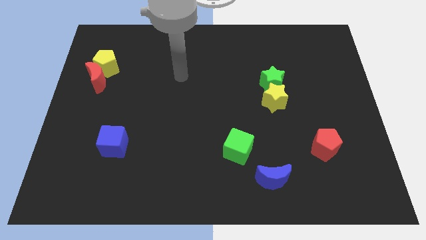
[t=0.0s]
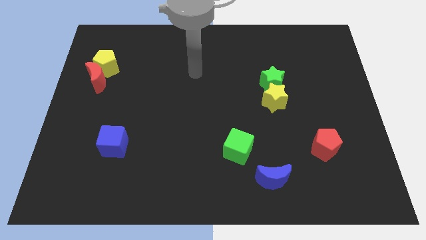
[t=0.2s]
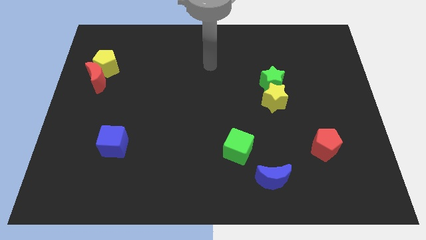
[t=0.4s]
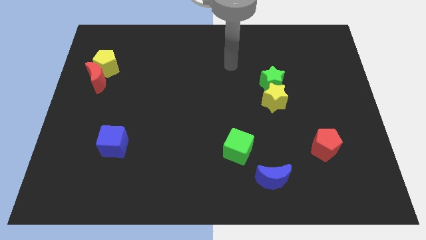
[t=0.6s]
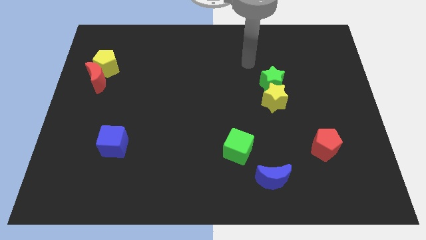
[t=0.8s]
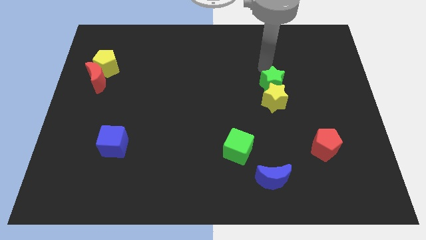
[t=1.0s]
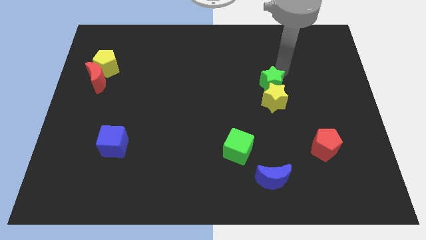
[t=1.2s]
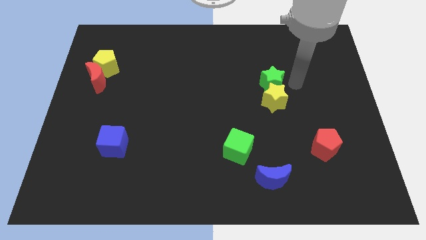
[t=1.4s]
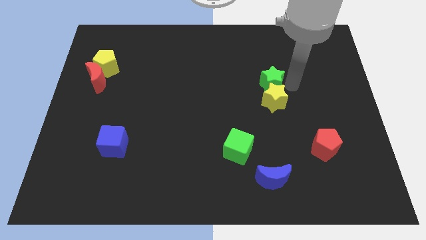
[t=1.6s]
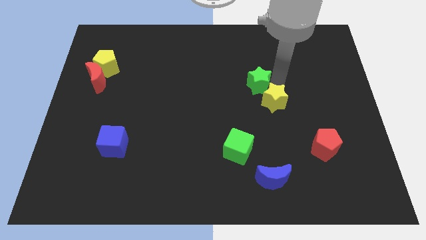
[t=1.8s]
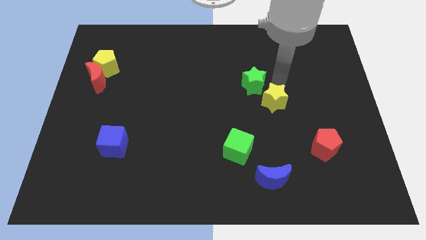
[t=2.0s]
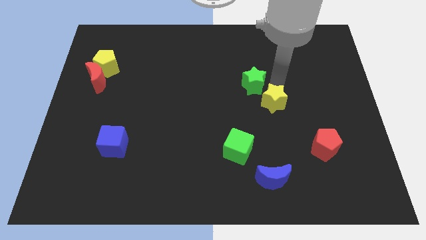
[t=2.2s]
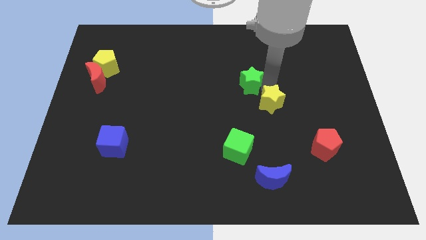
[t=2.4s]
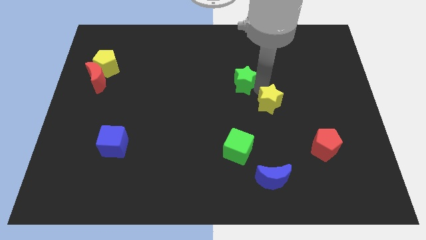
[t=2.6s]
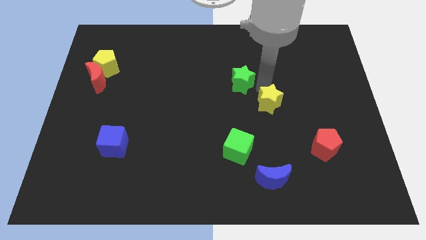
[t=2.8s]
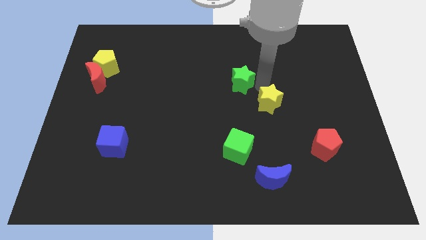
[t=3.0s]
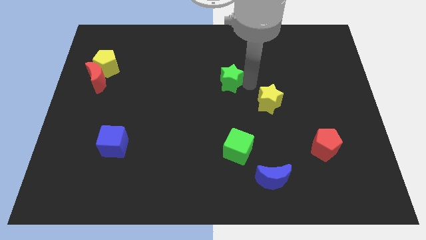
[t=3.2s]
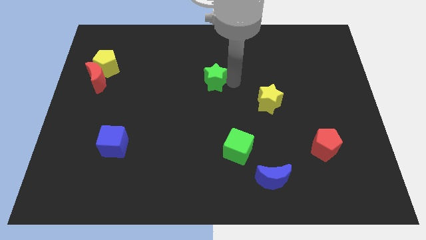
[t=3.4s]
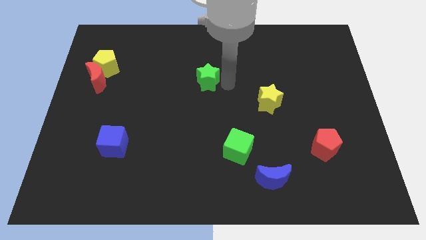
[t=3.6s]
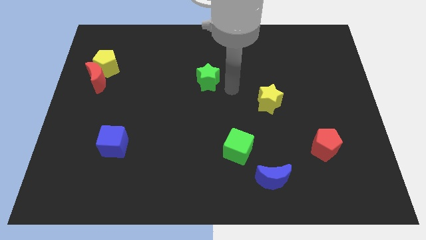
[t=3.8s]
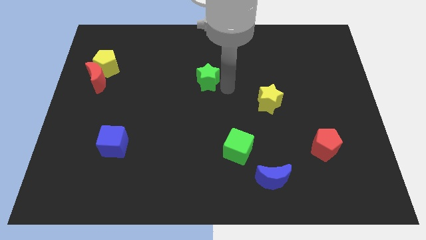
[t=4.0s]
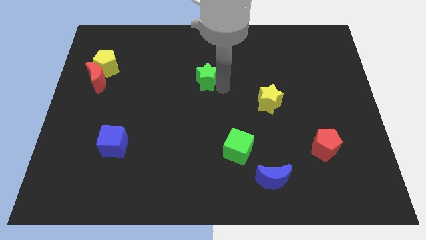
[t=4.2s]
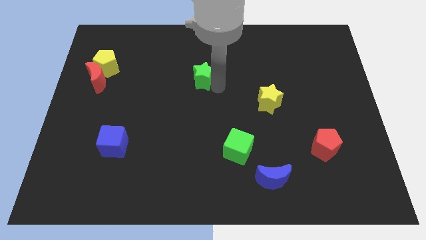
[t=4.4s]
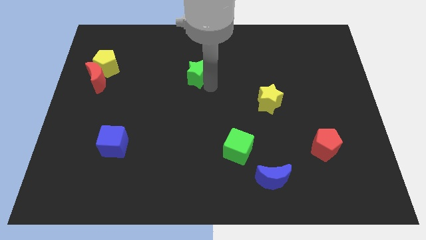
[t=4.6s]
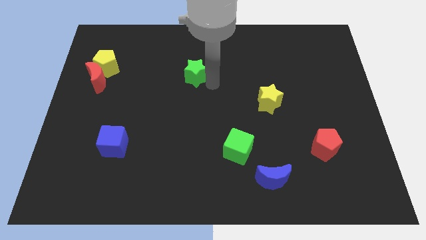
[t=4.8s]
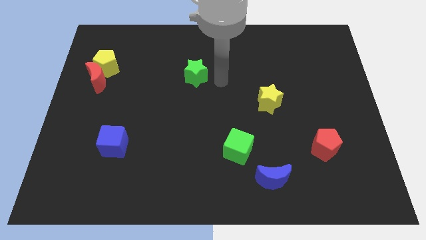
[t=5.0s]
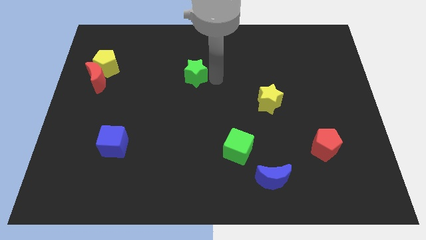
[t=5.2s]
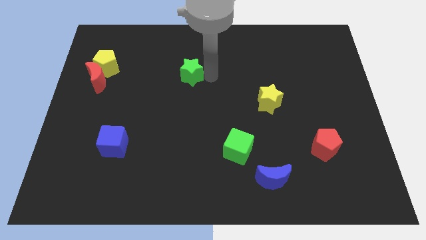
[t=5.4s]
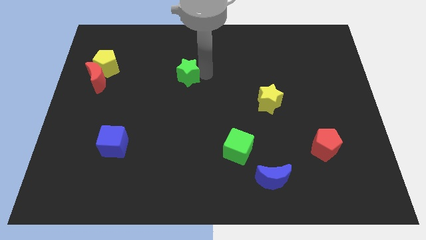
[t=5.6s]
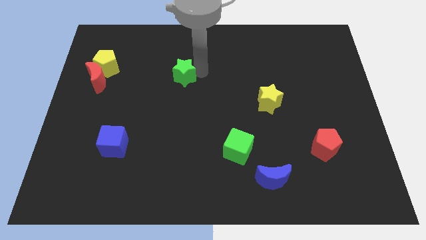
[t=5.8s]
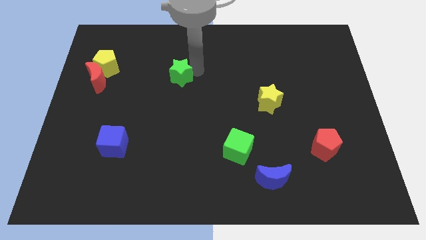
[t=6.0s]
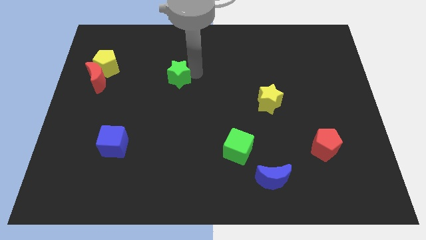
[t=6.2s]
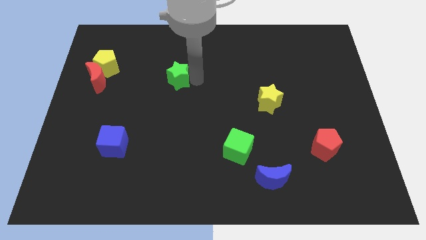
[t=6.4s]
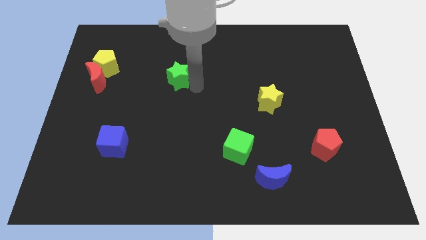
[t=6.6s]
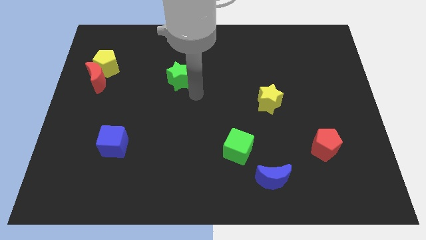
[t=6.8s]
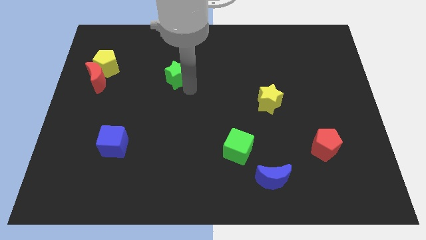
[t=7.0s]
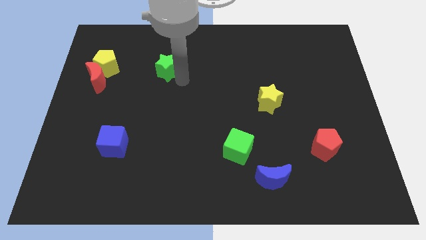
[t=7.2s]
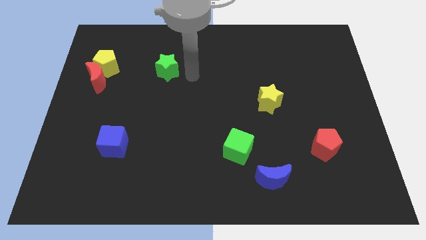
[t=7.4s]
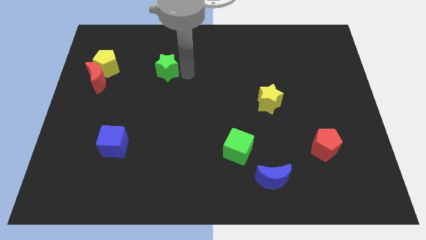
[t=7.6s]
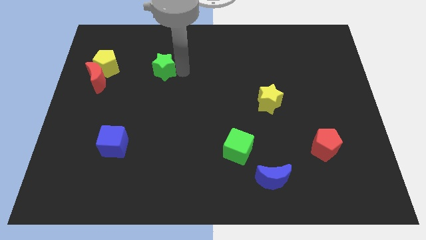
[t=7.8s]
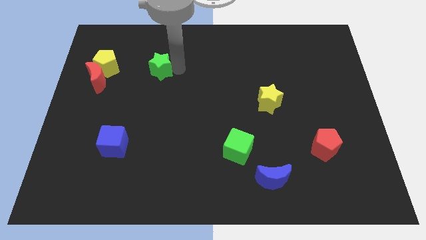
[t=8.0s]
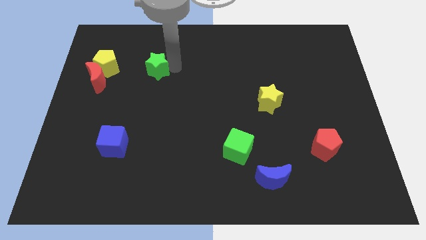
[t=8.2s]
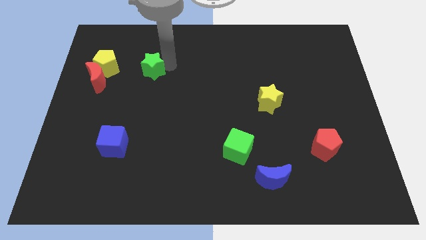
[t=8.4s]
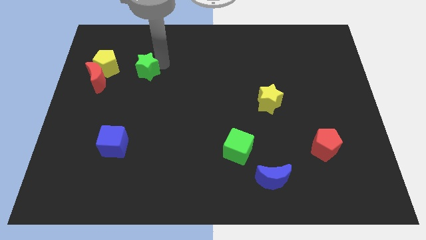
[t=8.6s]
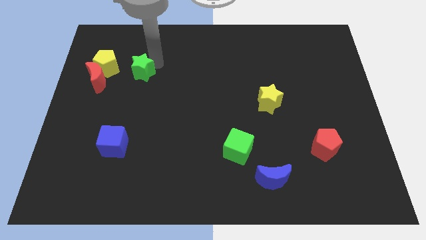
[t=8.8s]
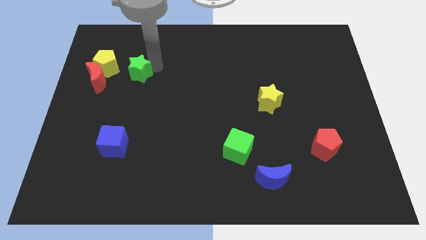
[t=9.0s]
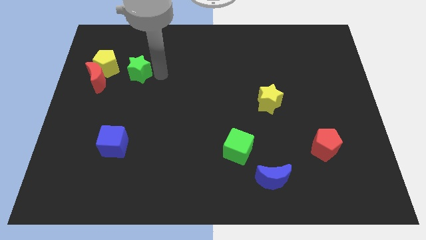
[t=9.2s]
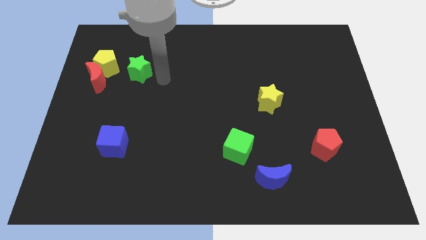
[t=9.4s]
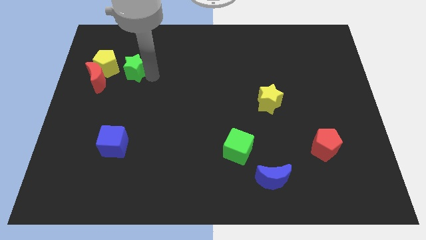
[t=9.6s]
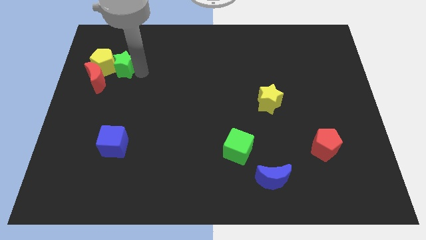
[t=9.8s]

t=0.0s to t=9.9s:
move the green star close to the yellow pentagon

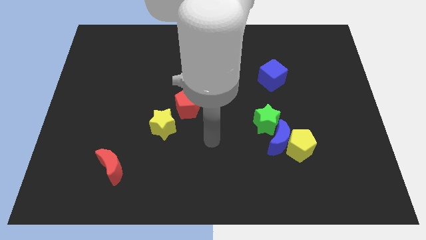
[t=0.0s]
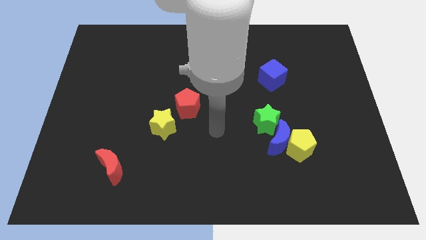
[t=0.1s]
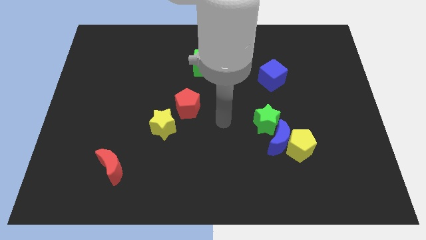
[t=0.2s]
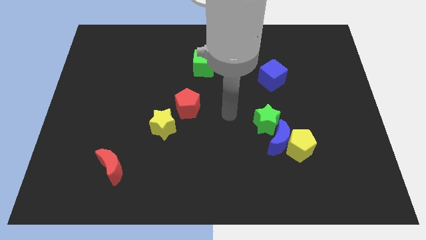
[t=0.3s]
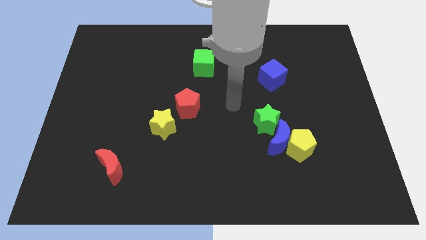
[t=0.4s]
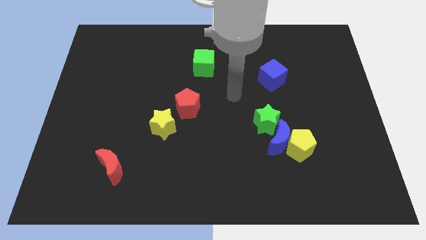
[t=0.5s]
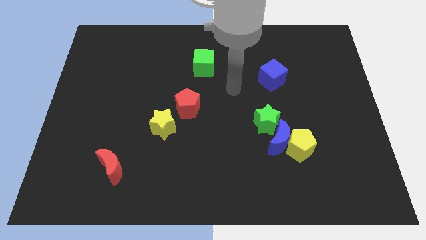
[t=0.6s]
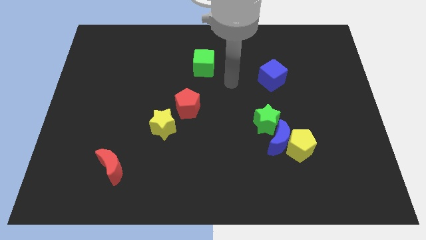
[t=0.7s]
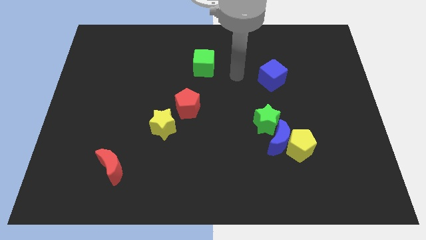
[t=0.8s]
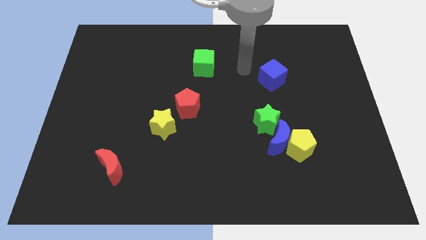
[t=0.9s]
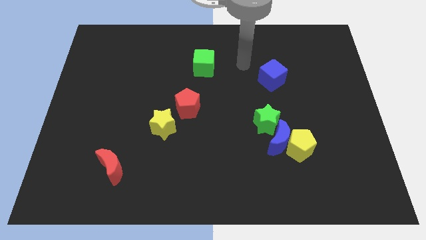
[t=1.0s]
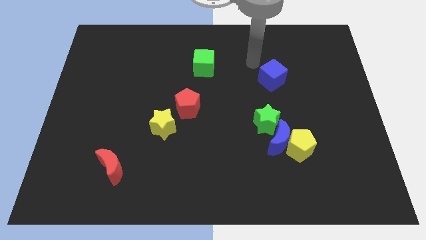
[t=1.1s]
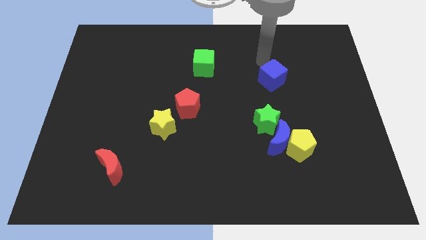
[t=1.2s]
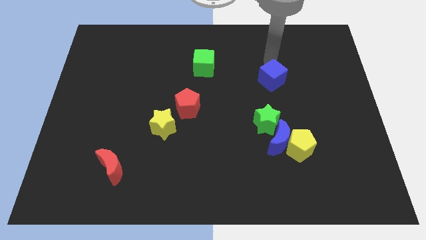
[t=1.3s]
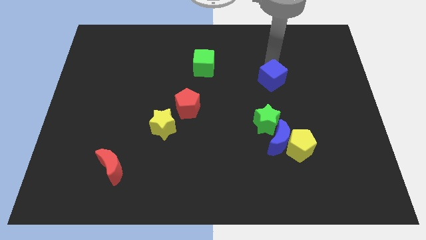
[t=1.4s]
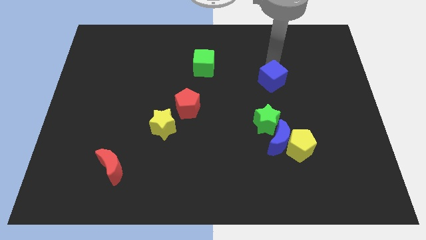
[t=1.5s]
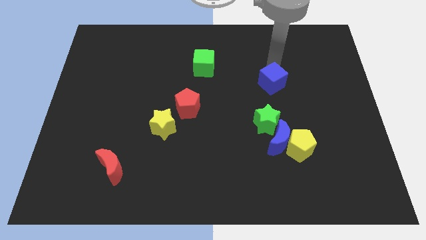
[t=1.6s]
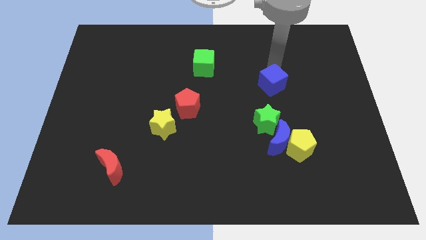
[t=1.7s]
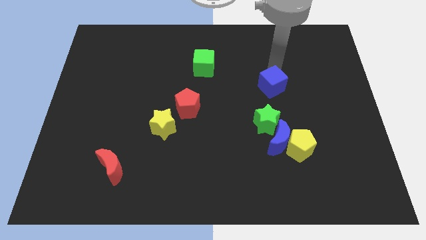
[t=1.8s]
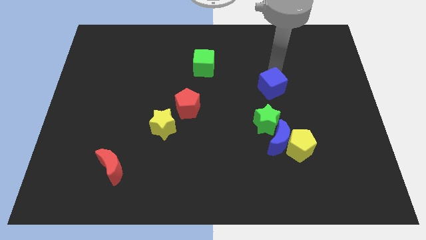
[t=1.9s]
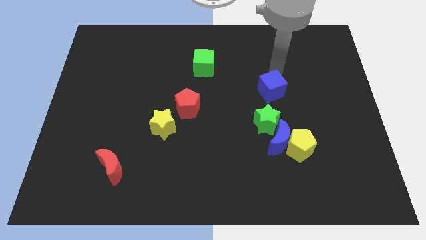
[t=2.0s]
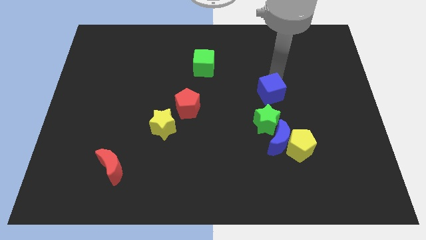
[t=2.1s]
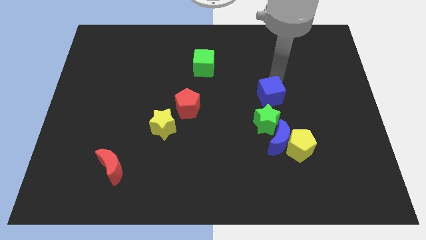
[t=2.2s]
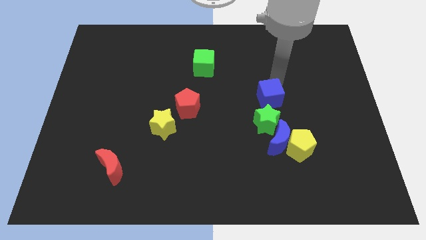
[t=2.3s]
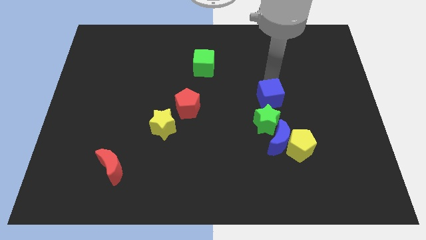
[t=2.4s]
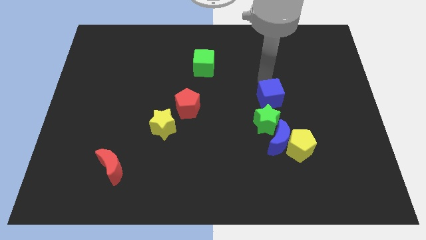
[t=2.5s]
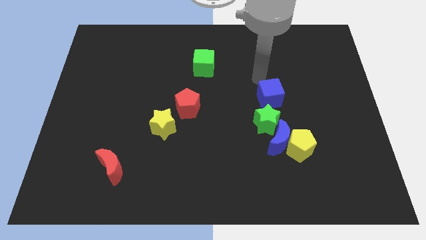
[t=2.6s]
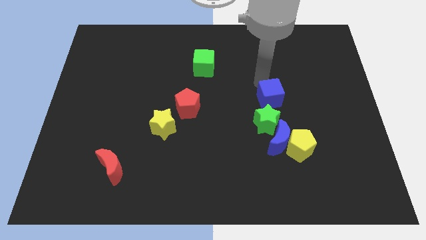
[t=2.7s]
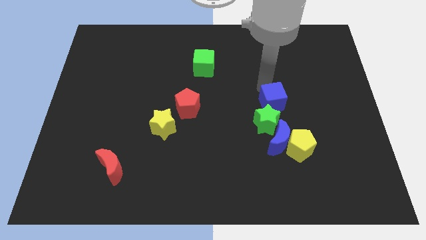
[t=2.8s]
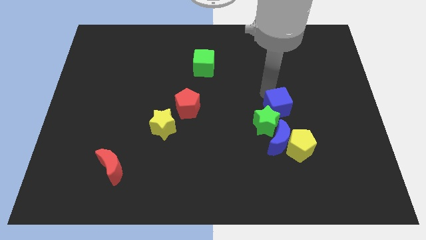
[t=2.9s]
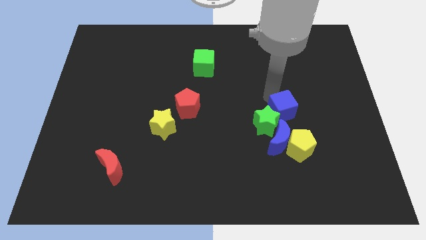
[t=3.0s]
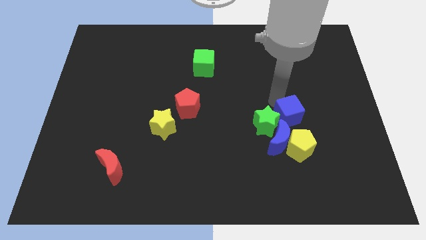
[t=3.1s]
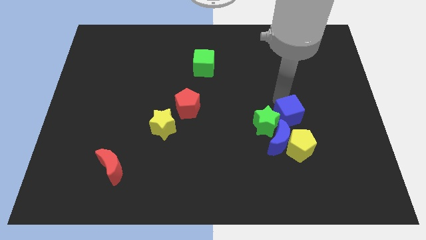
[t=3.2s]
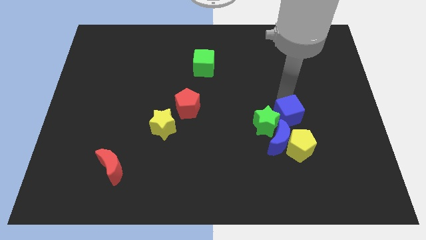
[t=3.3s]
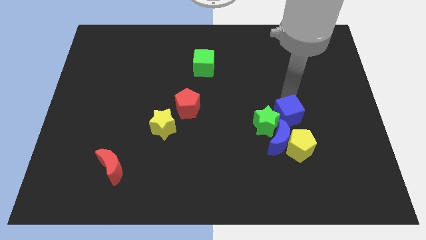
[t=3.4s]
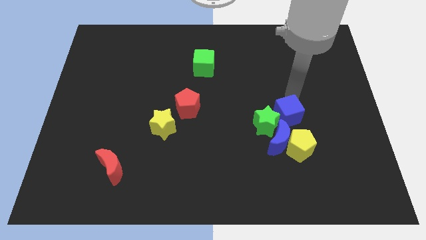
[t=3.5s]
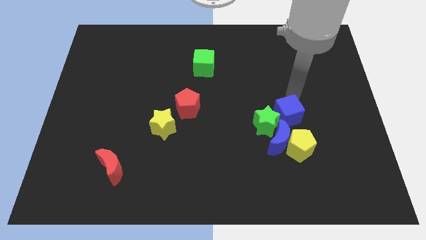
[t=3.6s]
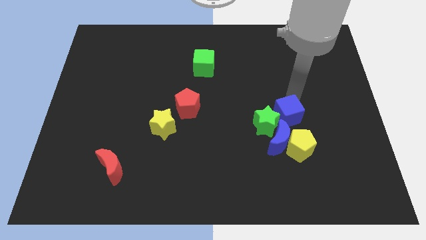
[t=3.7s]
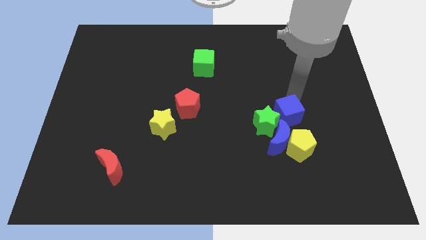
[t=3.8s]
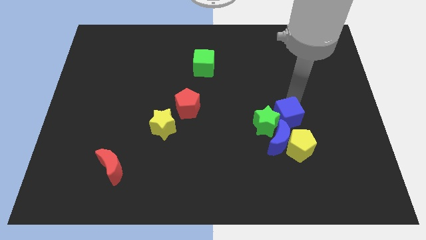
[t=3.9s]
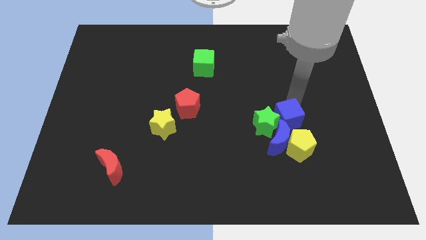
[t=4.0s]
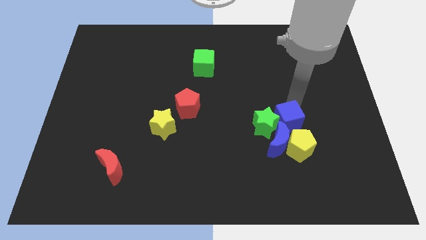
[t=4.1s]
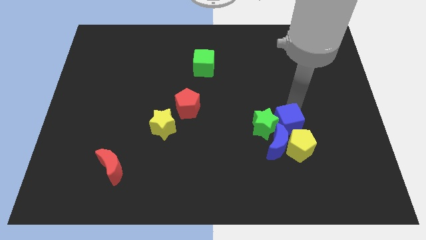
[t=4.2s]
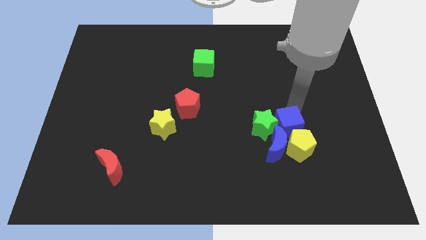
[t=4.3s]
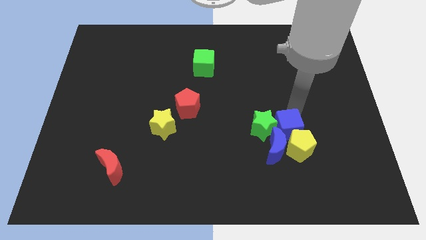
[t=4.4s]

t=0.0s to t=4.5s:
push the blue cube towards the blue moon
